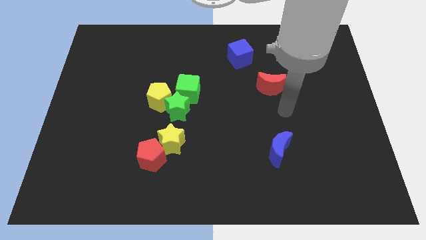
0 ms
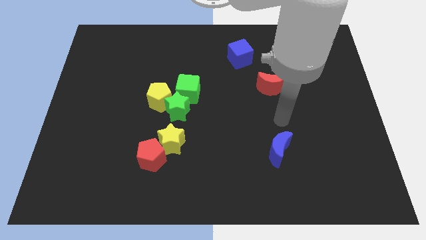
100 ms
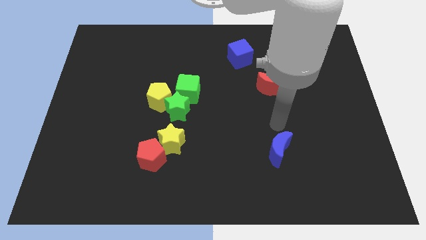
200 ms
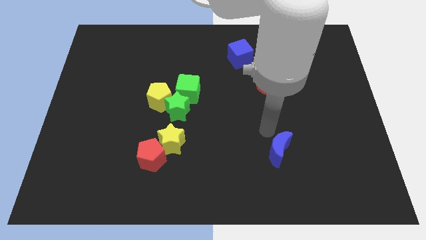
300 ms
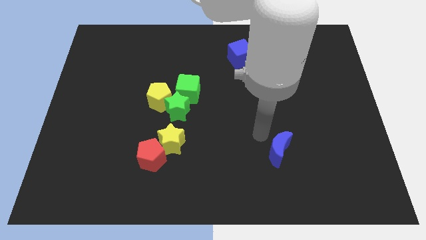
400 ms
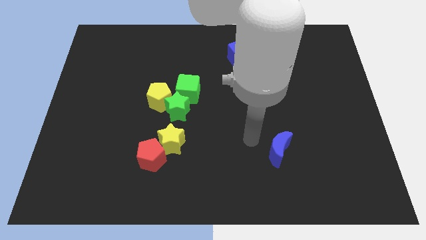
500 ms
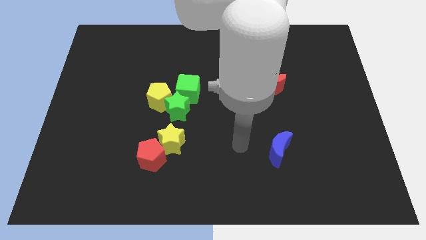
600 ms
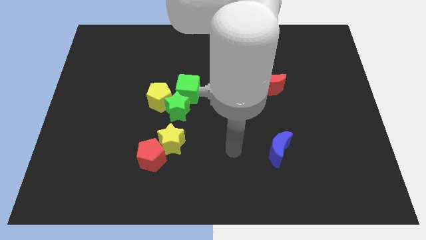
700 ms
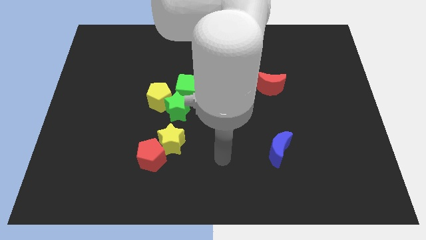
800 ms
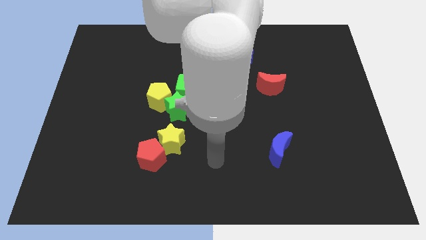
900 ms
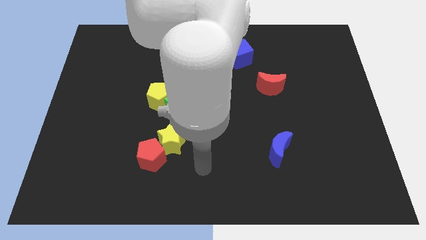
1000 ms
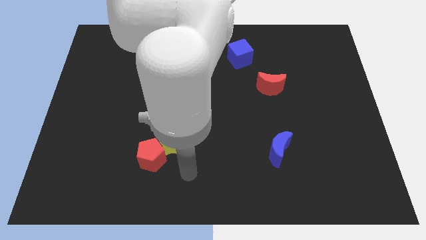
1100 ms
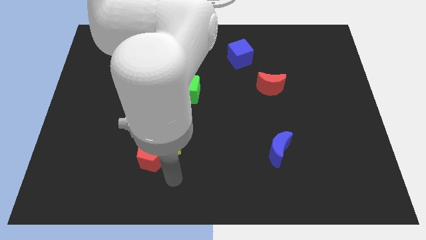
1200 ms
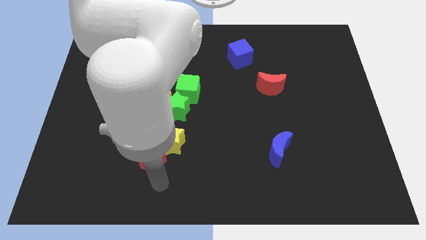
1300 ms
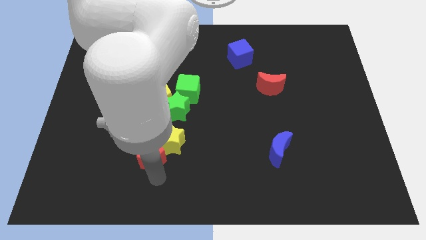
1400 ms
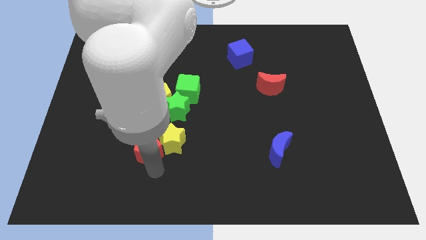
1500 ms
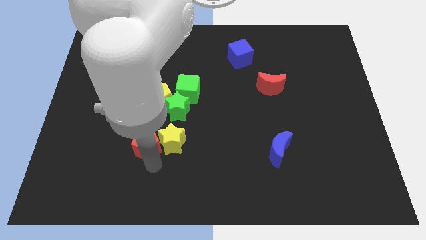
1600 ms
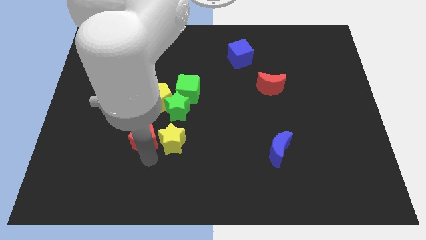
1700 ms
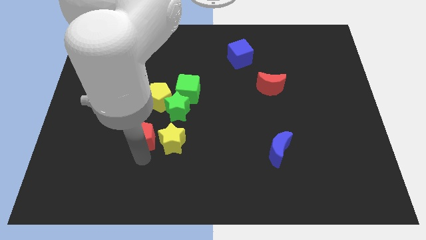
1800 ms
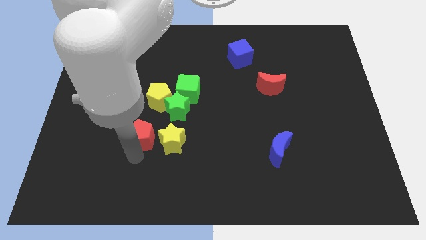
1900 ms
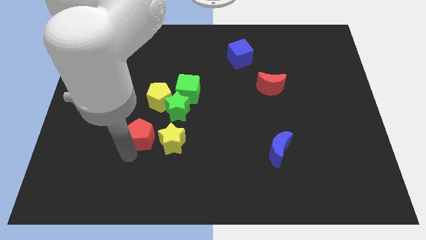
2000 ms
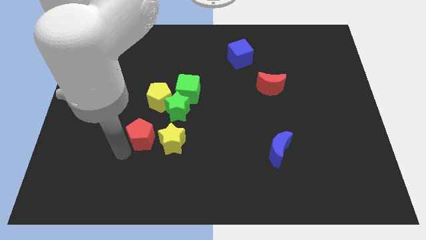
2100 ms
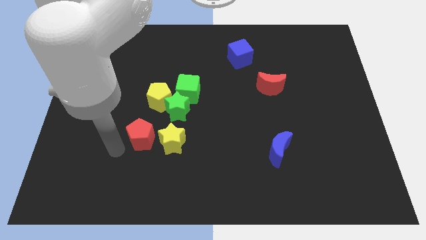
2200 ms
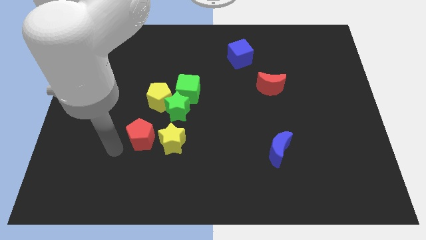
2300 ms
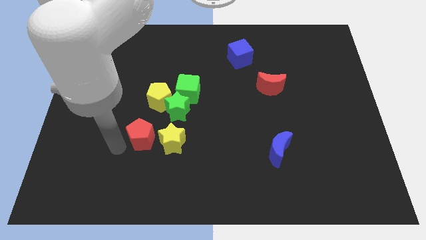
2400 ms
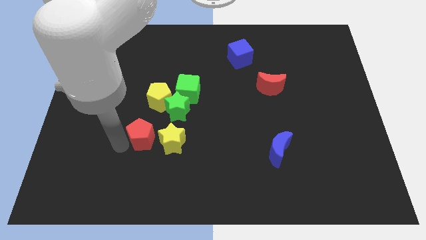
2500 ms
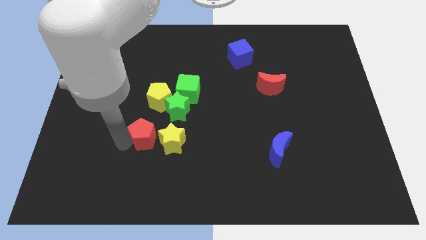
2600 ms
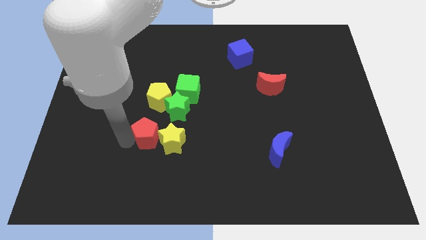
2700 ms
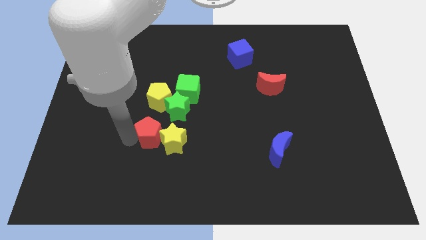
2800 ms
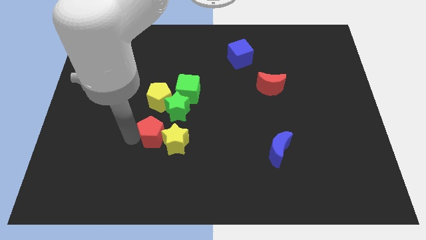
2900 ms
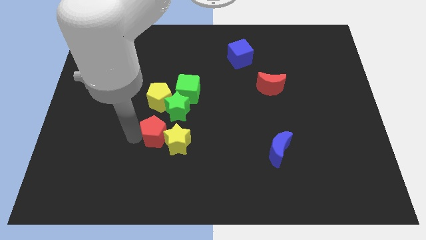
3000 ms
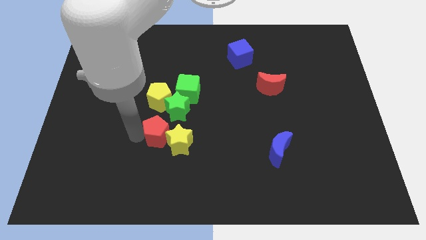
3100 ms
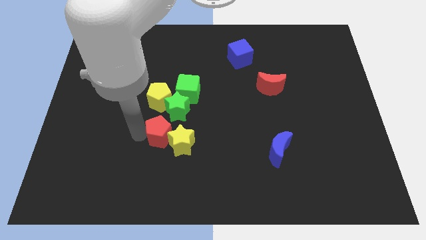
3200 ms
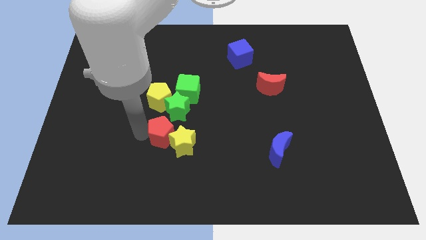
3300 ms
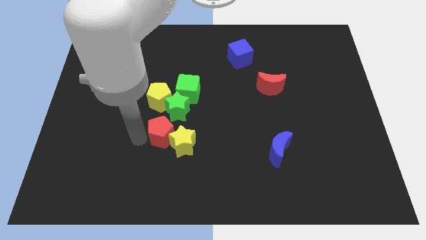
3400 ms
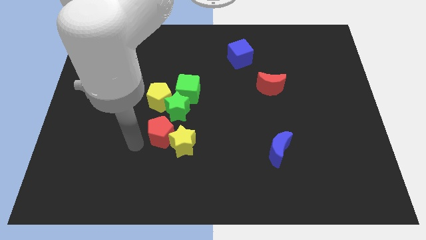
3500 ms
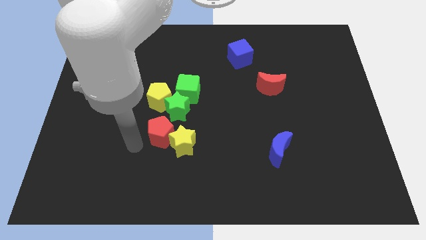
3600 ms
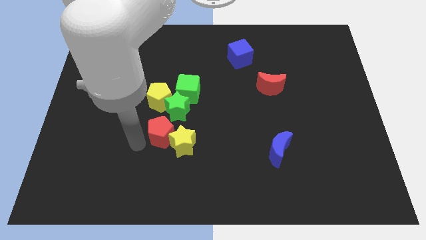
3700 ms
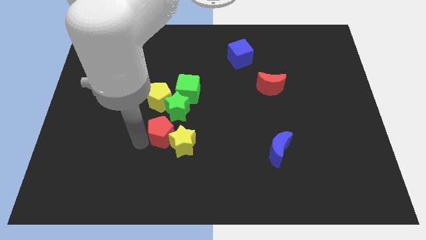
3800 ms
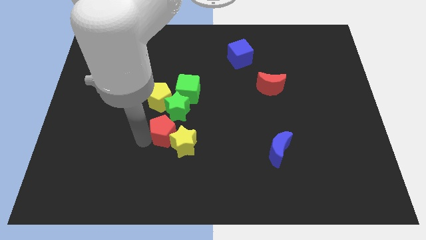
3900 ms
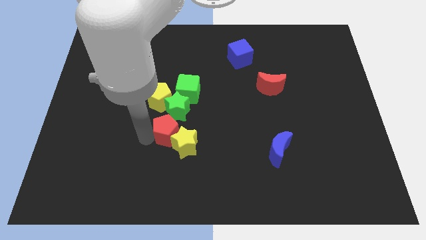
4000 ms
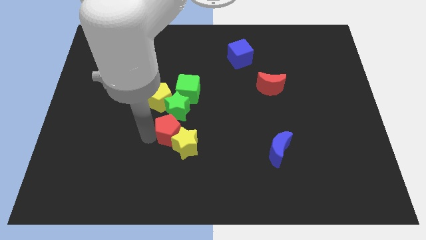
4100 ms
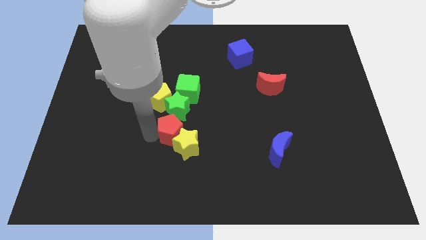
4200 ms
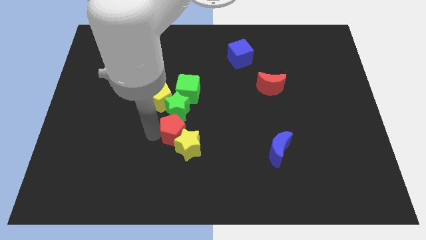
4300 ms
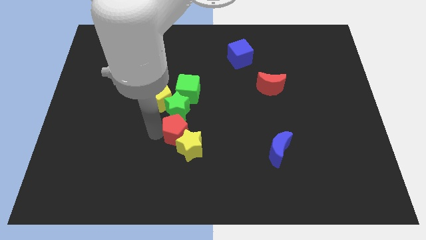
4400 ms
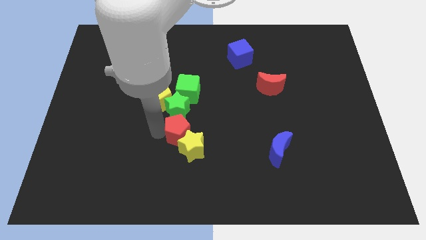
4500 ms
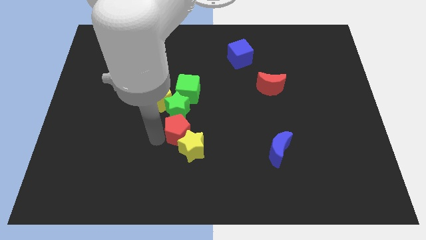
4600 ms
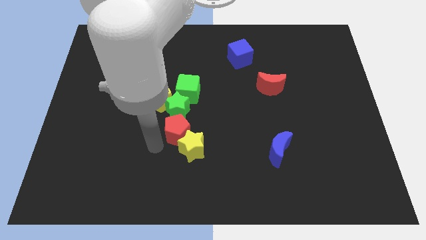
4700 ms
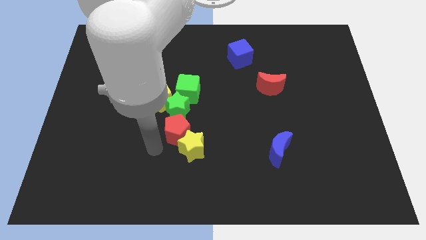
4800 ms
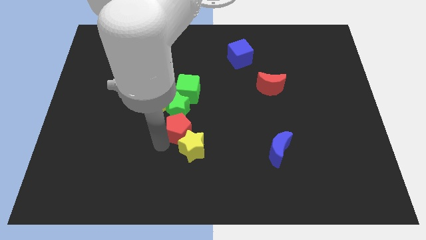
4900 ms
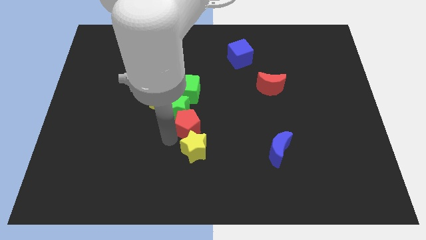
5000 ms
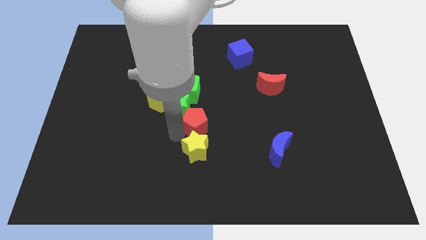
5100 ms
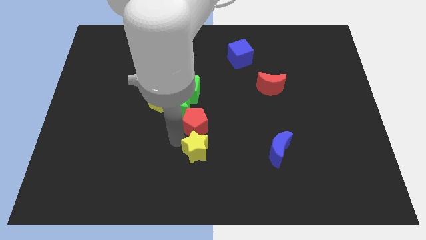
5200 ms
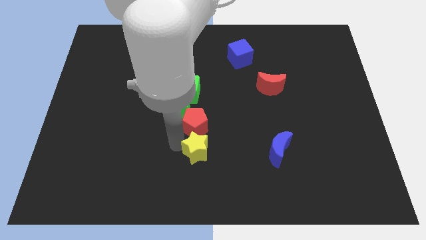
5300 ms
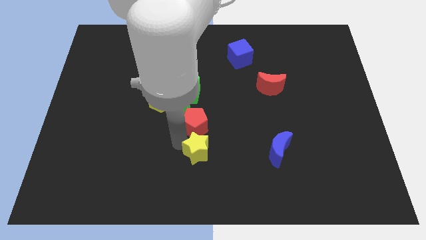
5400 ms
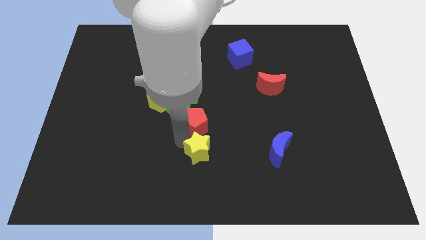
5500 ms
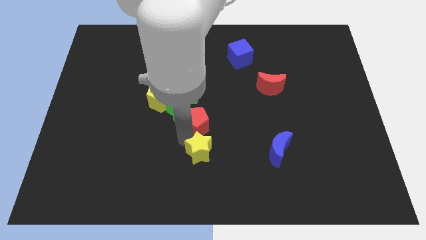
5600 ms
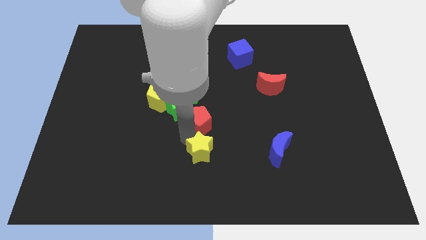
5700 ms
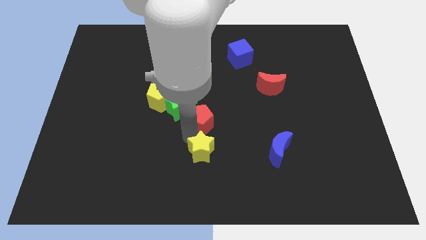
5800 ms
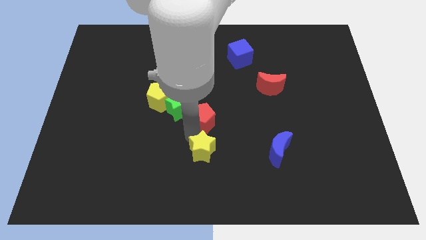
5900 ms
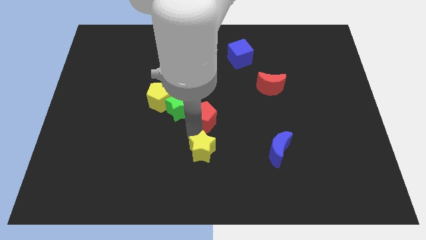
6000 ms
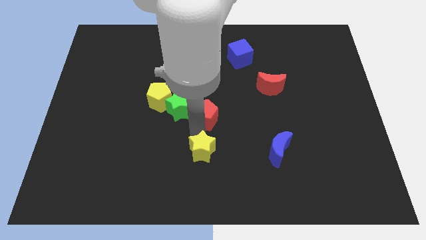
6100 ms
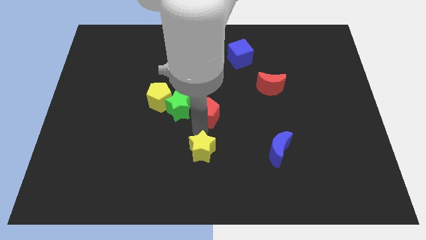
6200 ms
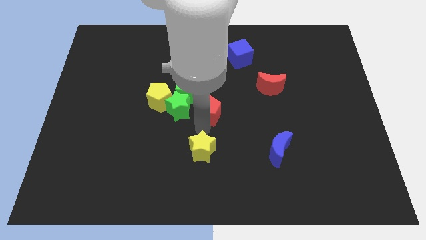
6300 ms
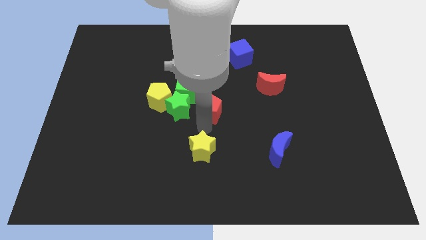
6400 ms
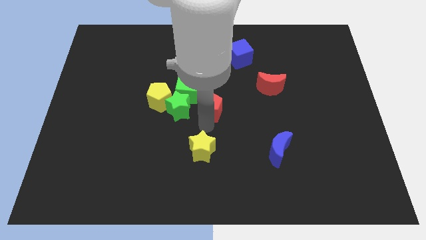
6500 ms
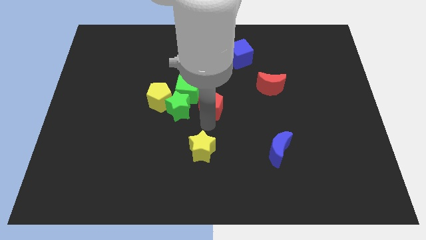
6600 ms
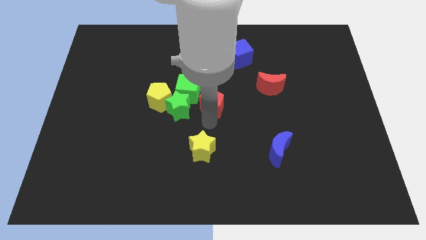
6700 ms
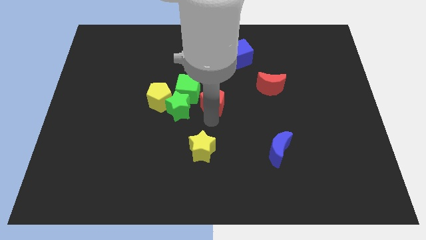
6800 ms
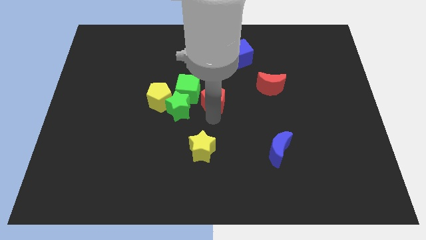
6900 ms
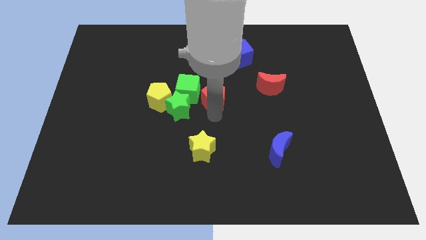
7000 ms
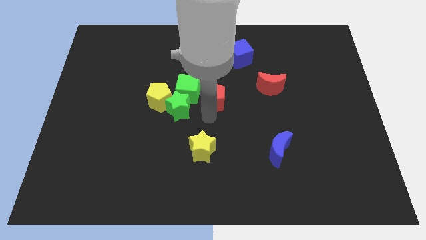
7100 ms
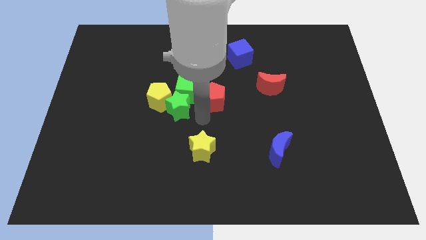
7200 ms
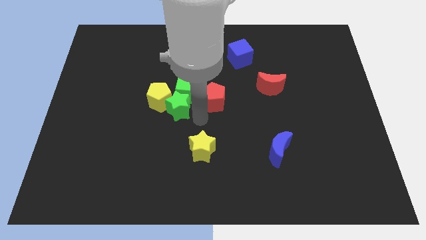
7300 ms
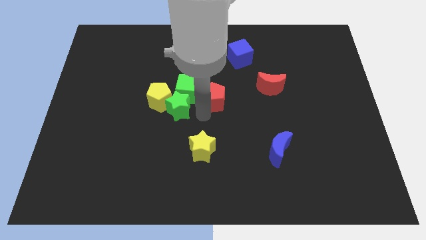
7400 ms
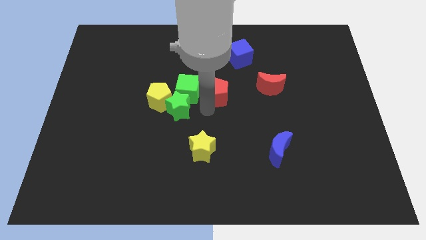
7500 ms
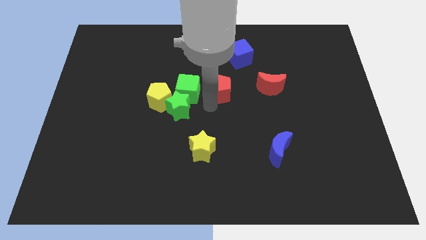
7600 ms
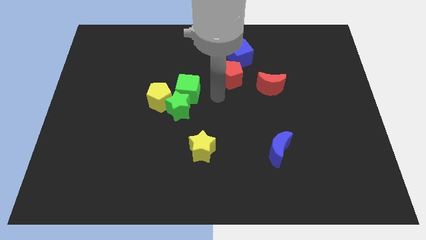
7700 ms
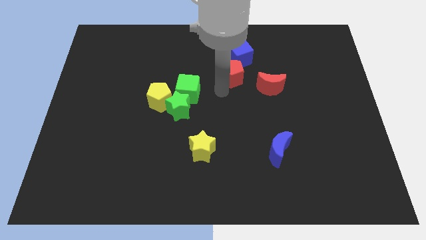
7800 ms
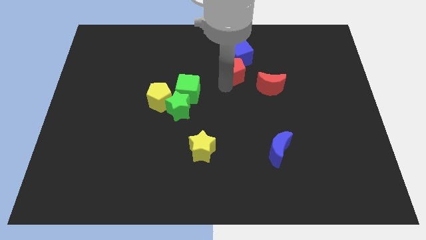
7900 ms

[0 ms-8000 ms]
move the red pentagon next to the blue cube
